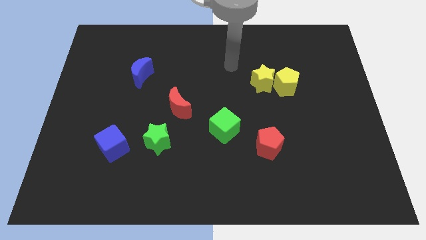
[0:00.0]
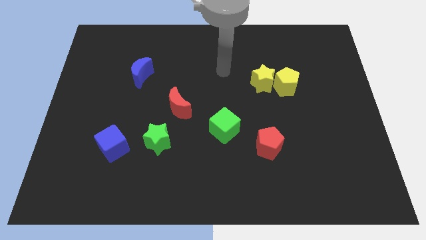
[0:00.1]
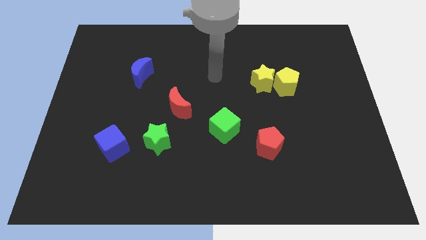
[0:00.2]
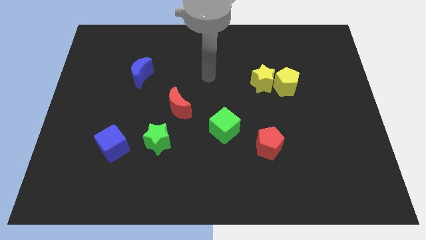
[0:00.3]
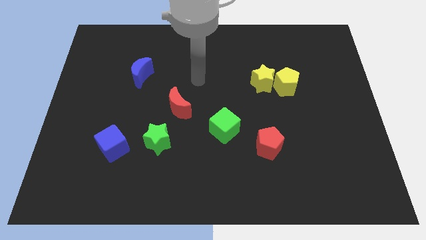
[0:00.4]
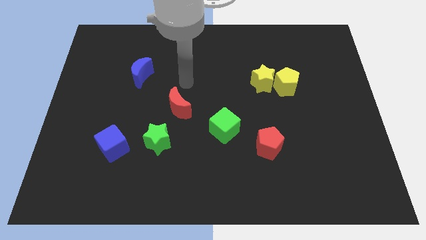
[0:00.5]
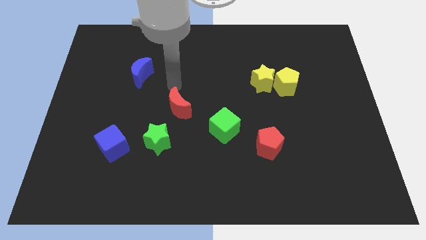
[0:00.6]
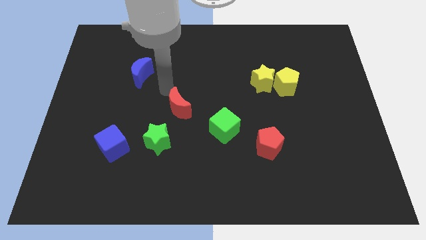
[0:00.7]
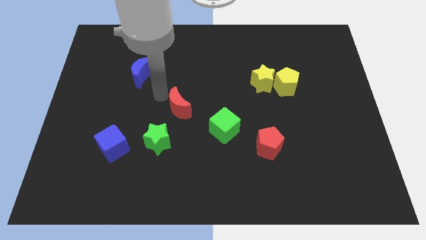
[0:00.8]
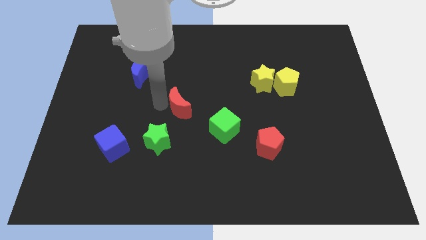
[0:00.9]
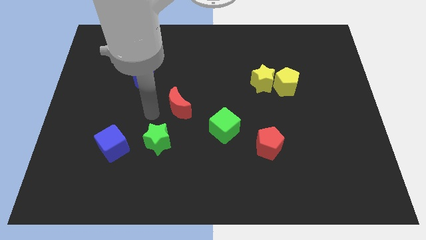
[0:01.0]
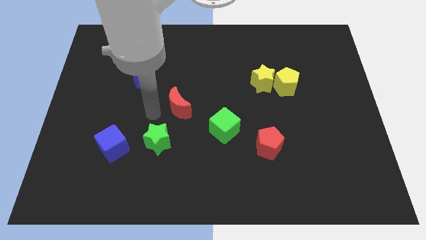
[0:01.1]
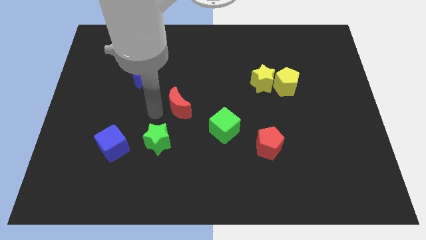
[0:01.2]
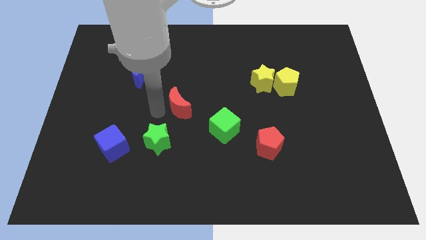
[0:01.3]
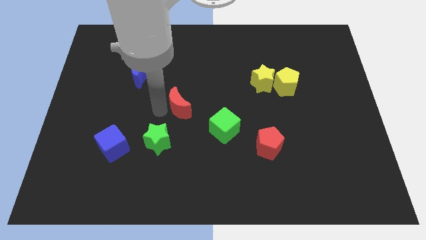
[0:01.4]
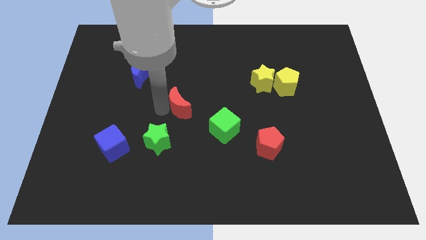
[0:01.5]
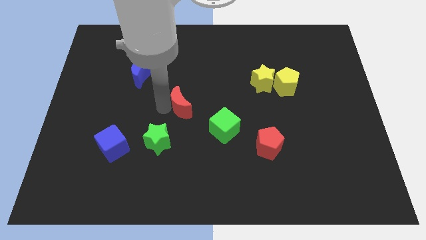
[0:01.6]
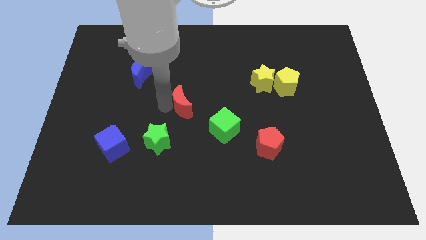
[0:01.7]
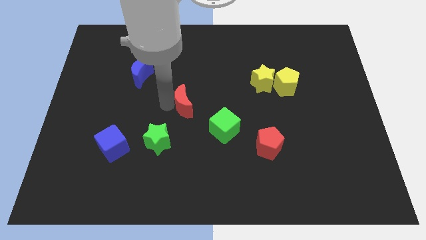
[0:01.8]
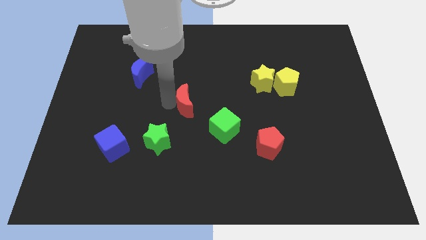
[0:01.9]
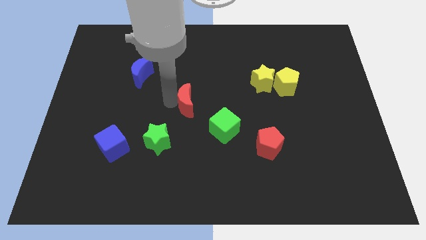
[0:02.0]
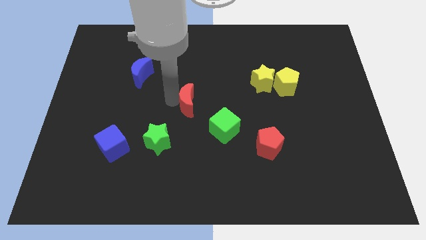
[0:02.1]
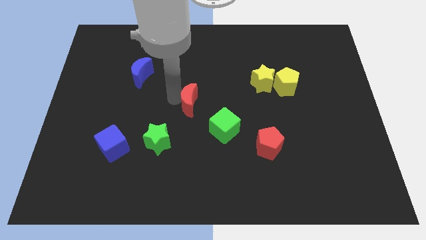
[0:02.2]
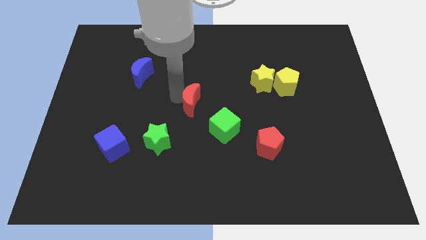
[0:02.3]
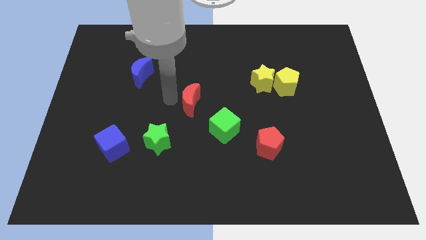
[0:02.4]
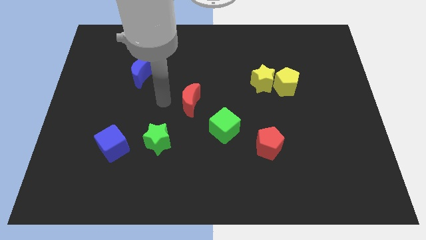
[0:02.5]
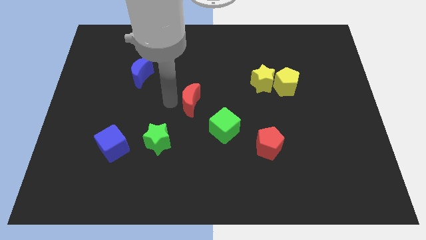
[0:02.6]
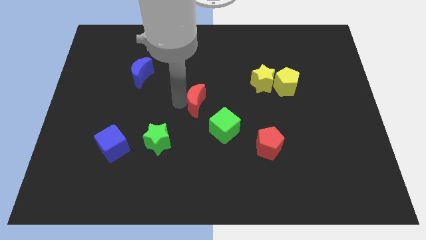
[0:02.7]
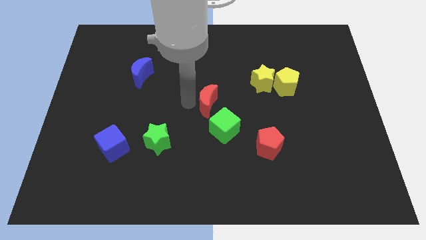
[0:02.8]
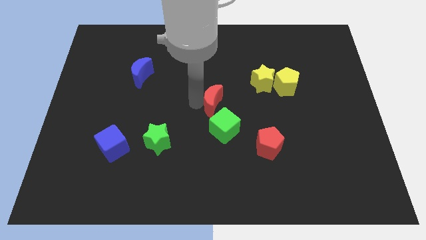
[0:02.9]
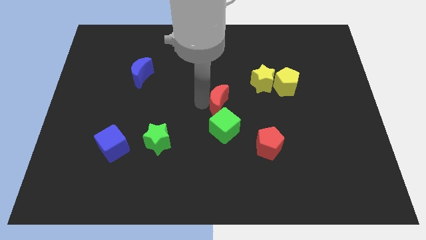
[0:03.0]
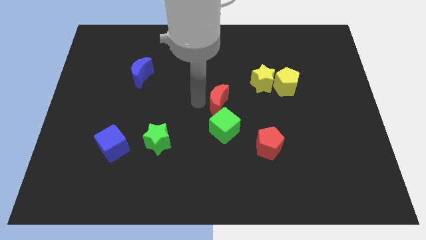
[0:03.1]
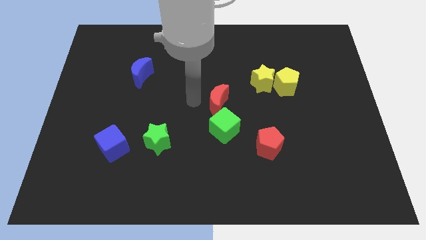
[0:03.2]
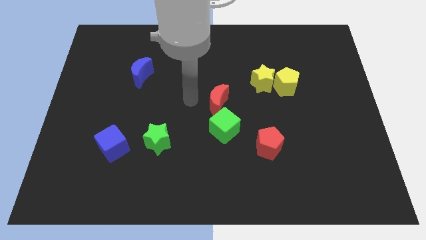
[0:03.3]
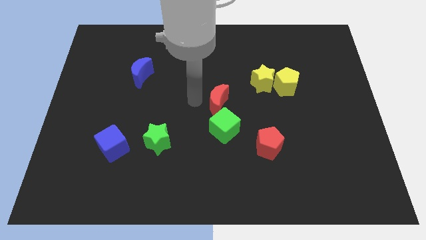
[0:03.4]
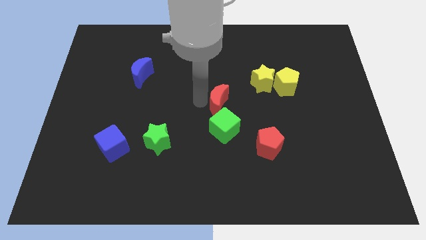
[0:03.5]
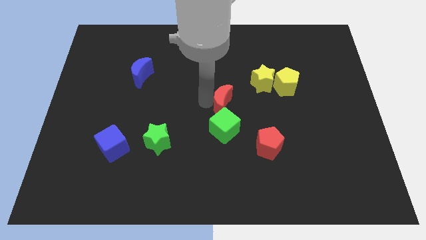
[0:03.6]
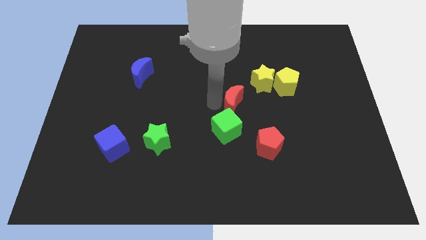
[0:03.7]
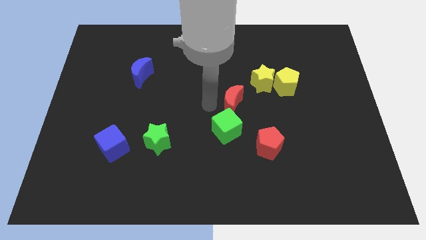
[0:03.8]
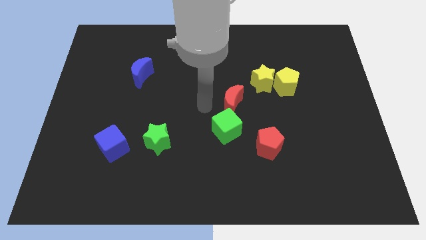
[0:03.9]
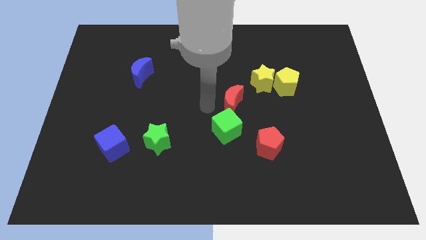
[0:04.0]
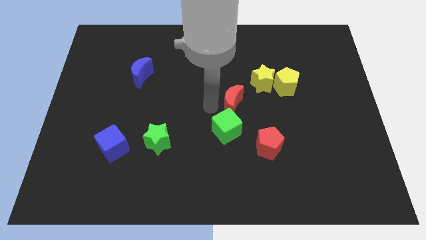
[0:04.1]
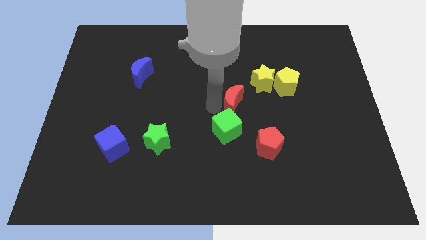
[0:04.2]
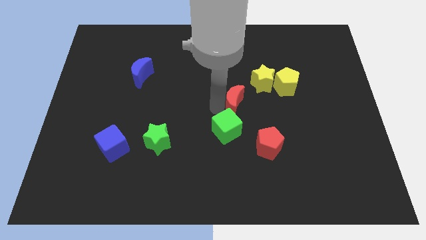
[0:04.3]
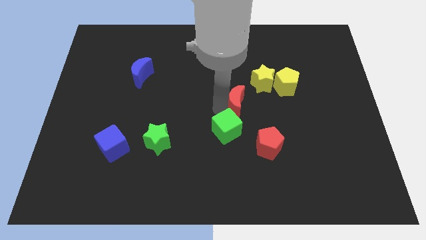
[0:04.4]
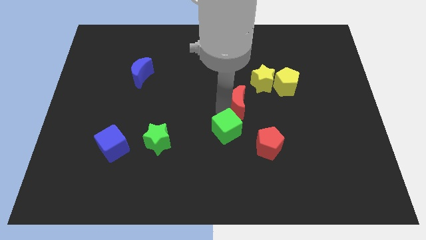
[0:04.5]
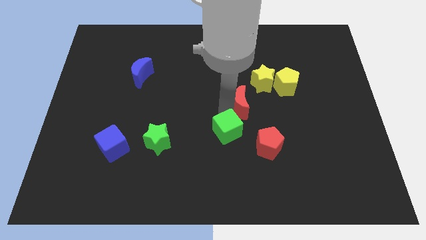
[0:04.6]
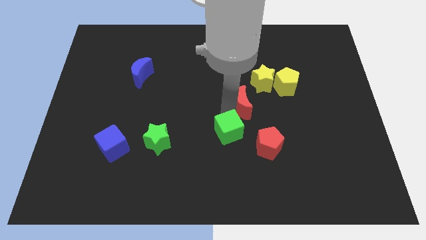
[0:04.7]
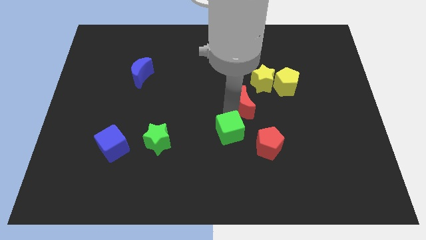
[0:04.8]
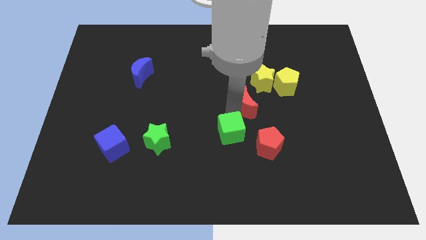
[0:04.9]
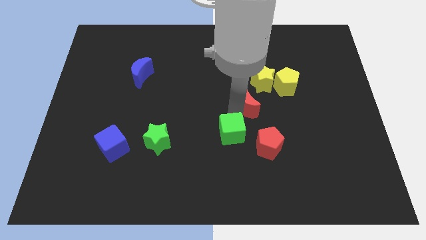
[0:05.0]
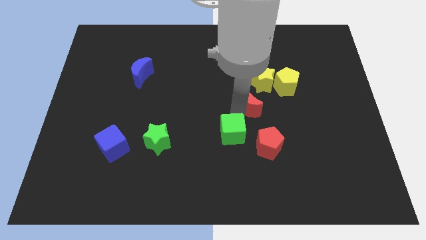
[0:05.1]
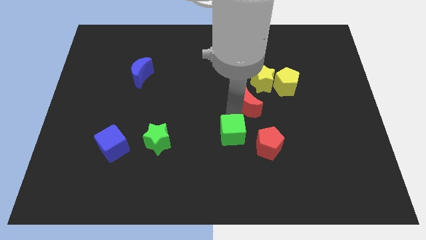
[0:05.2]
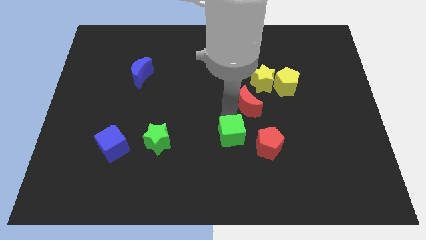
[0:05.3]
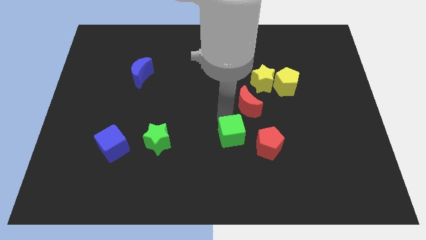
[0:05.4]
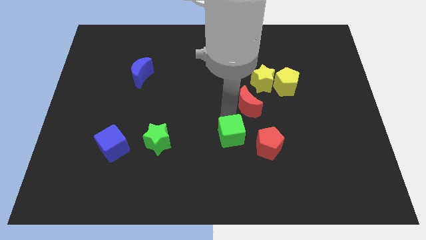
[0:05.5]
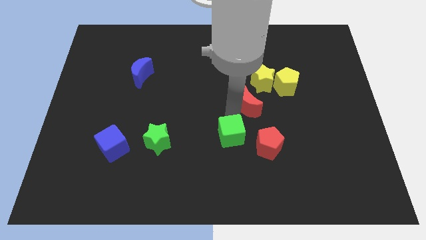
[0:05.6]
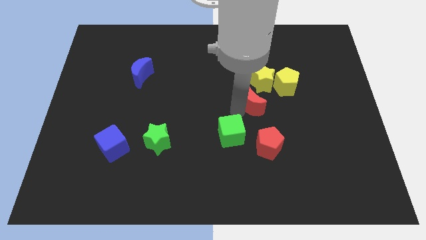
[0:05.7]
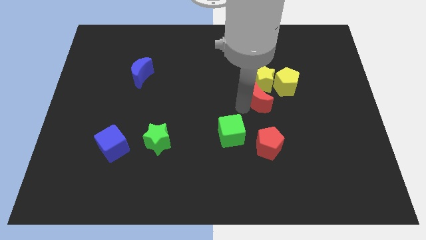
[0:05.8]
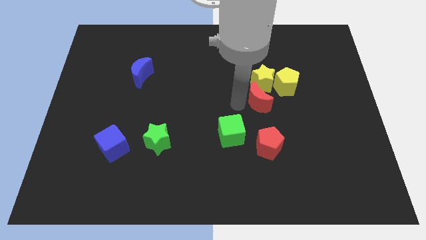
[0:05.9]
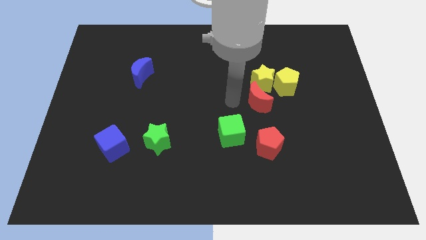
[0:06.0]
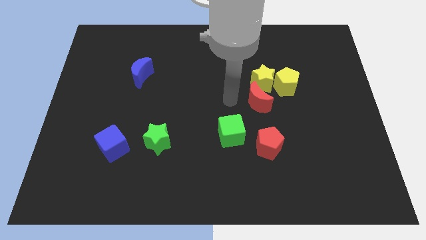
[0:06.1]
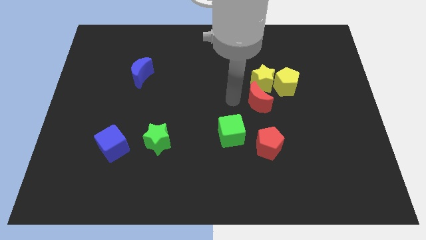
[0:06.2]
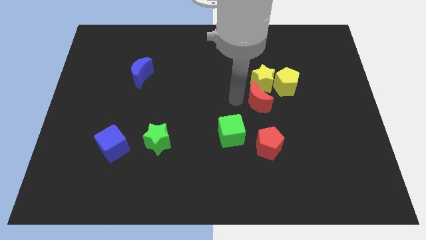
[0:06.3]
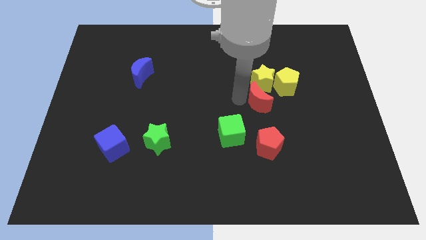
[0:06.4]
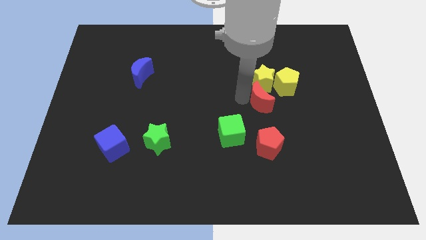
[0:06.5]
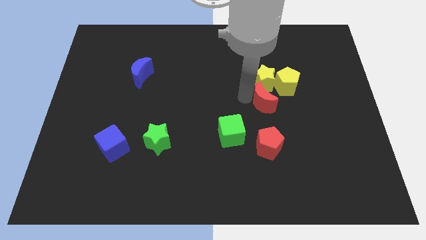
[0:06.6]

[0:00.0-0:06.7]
push the red moon right

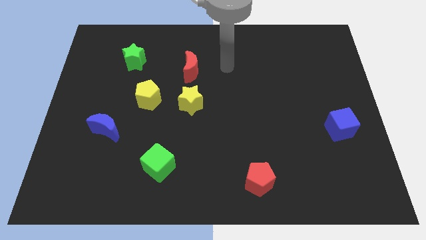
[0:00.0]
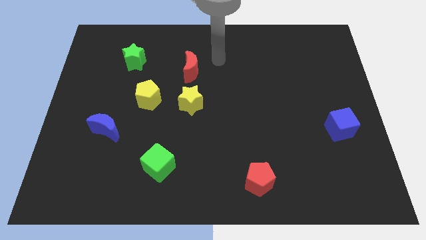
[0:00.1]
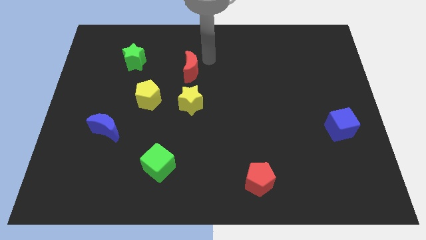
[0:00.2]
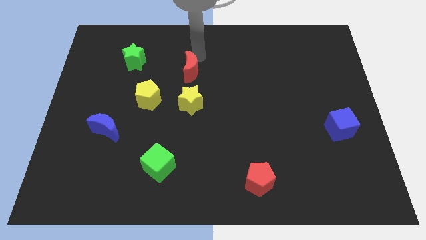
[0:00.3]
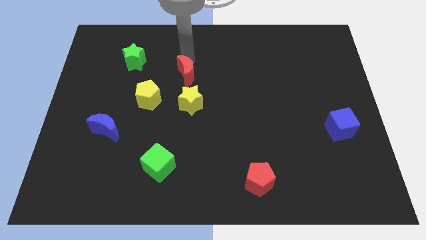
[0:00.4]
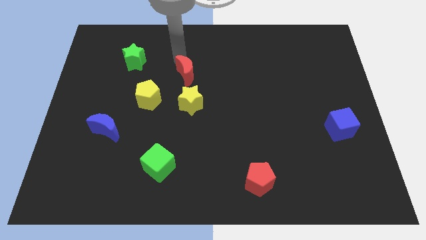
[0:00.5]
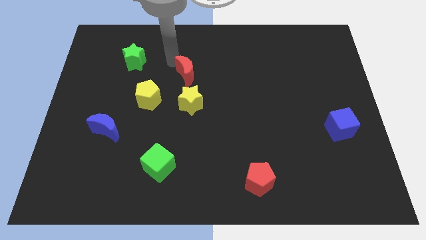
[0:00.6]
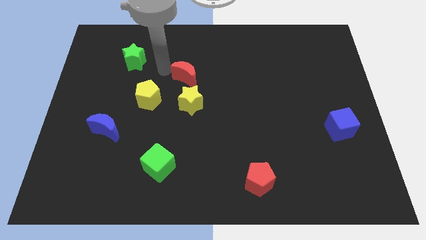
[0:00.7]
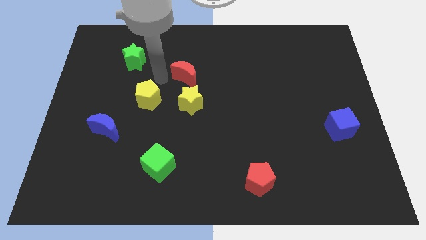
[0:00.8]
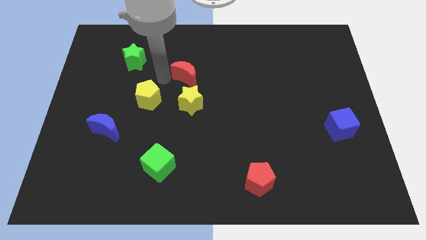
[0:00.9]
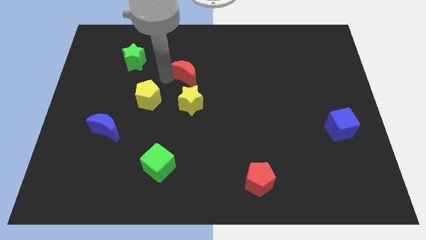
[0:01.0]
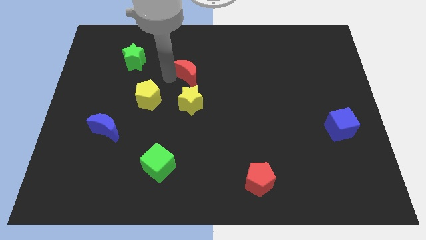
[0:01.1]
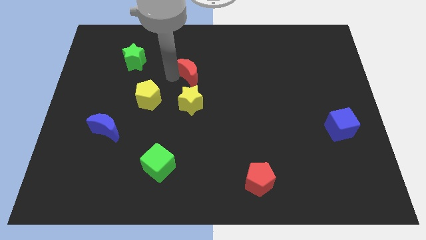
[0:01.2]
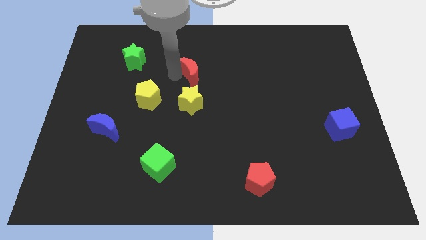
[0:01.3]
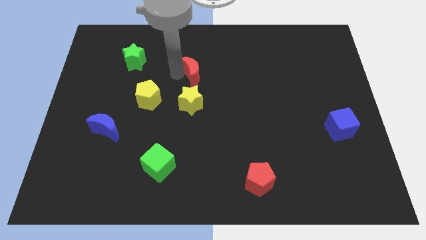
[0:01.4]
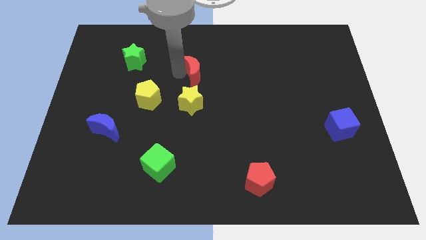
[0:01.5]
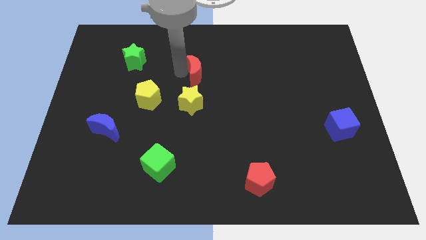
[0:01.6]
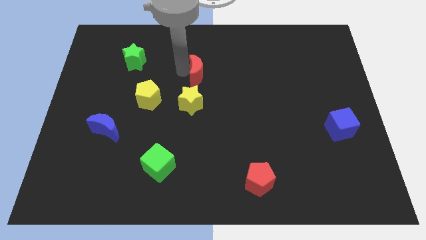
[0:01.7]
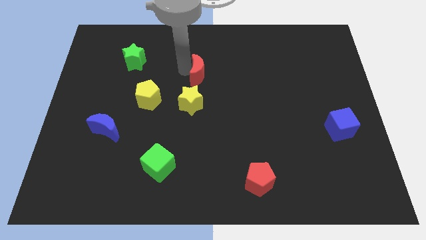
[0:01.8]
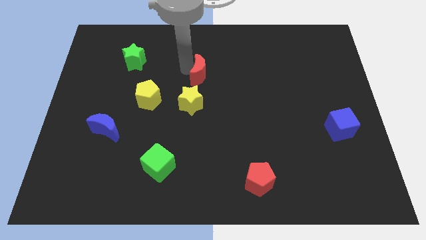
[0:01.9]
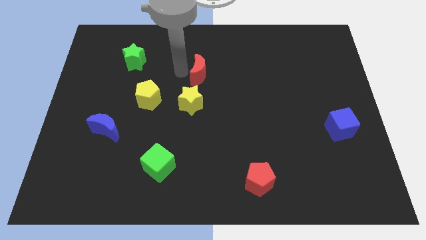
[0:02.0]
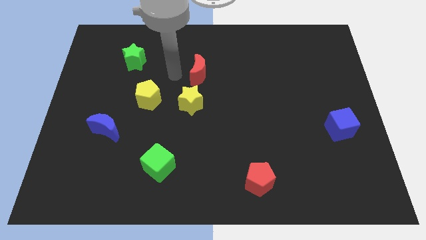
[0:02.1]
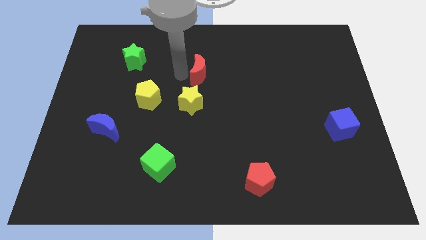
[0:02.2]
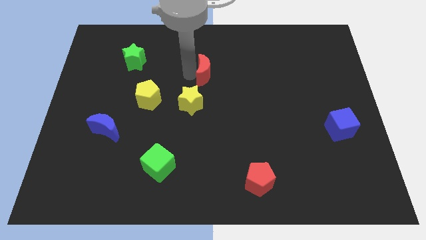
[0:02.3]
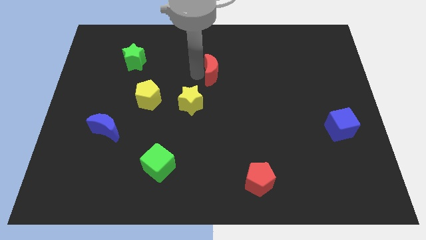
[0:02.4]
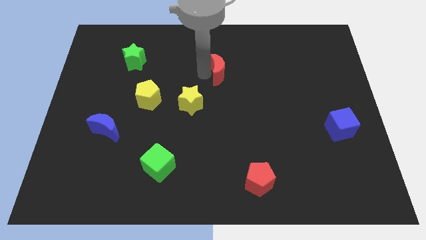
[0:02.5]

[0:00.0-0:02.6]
move the red moon a little to the right
